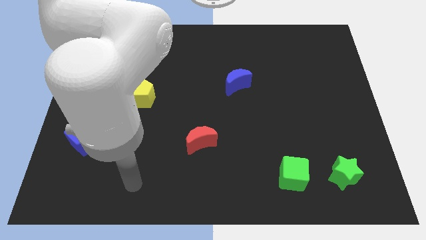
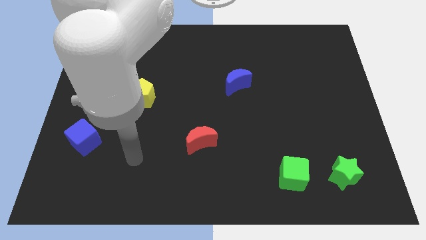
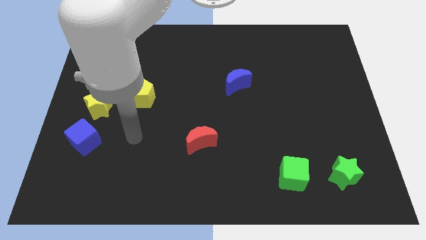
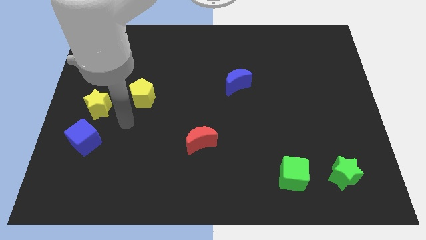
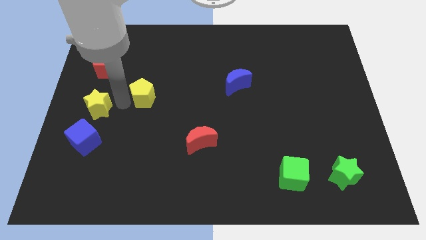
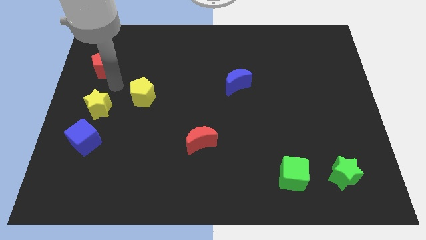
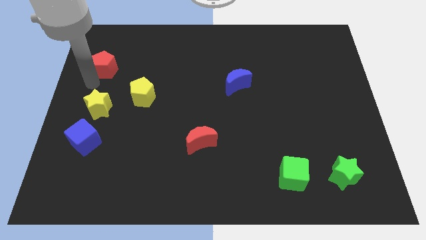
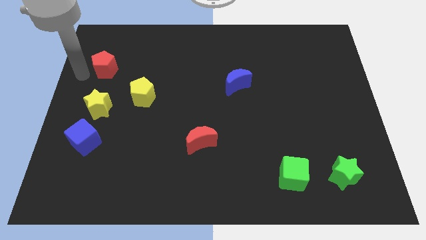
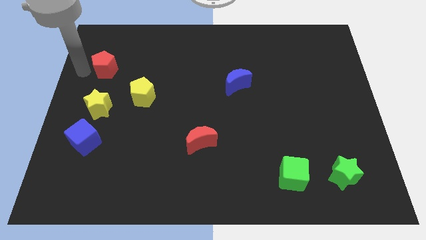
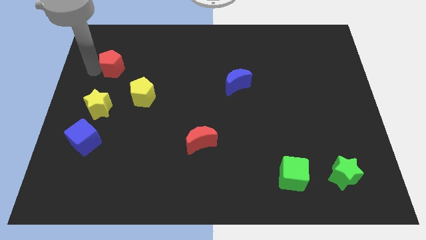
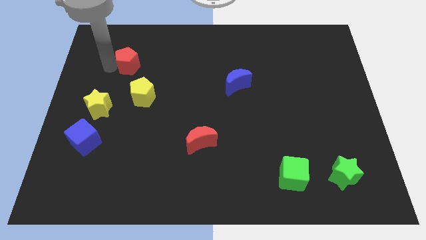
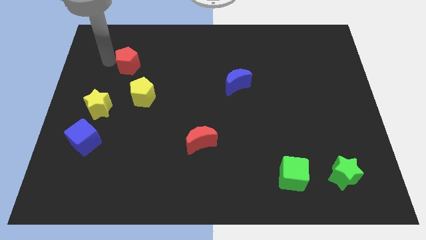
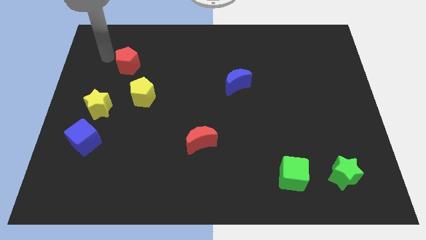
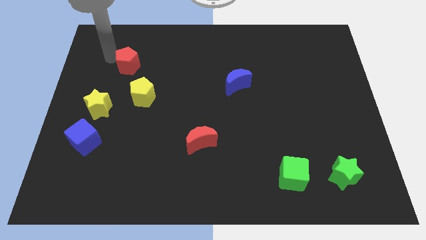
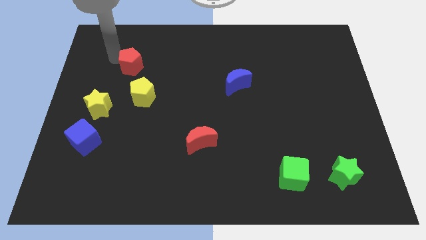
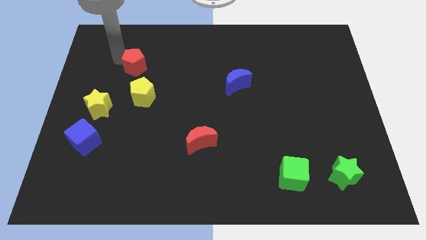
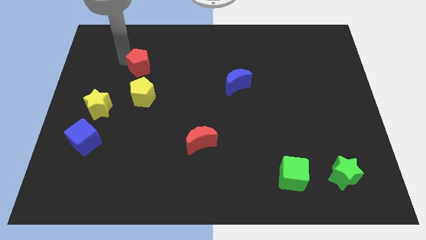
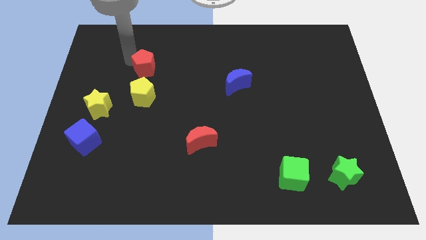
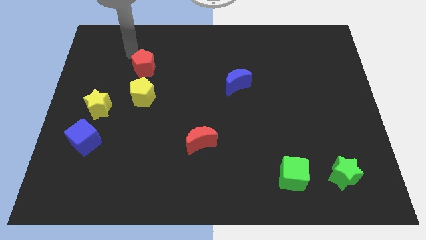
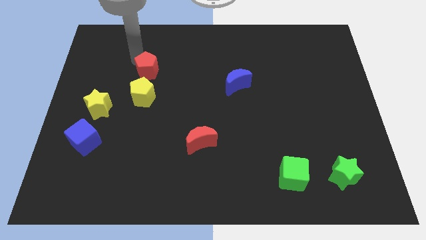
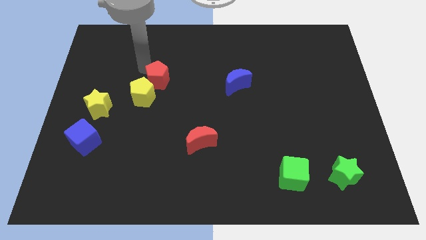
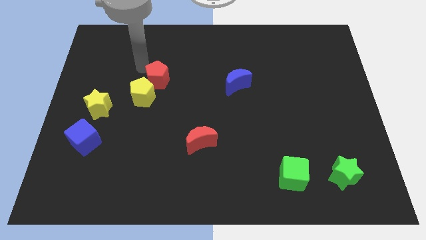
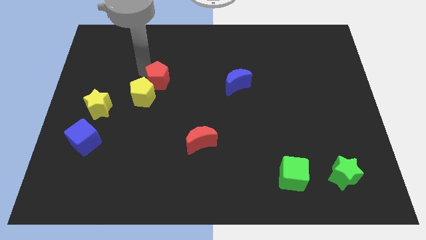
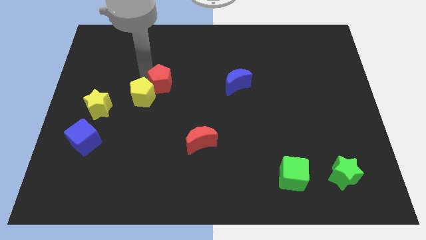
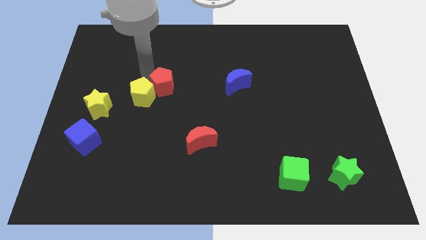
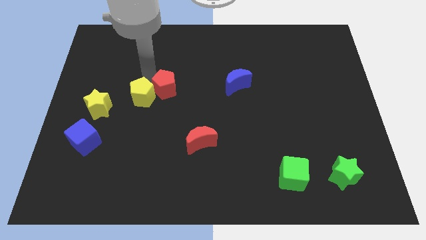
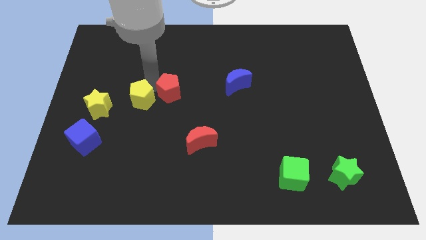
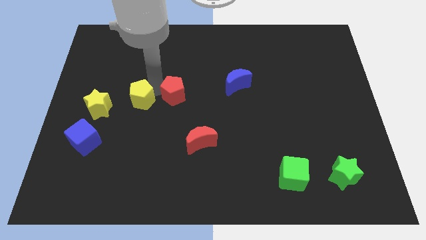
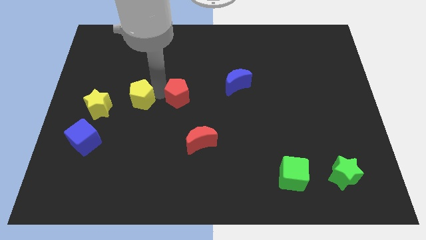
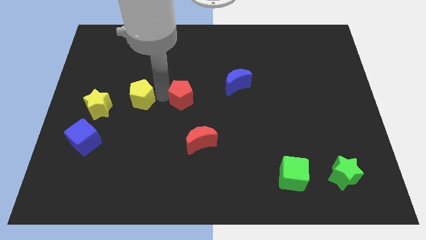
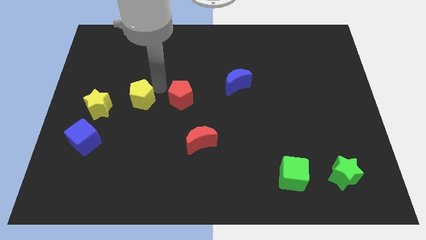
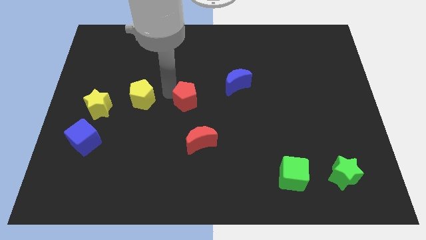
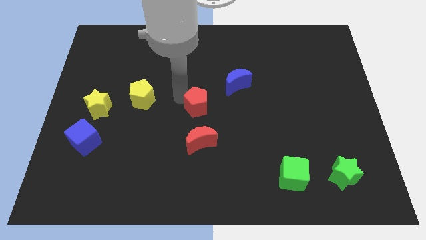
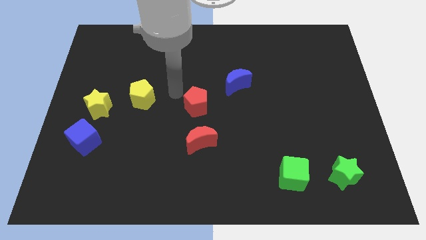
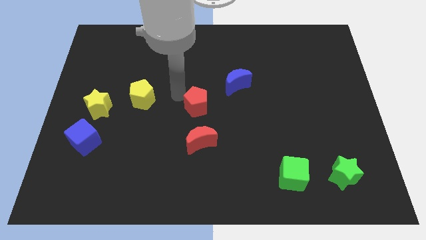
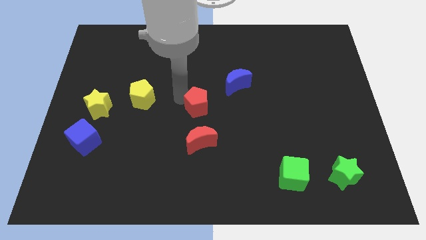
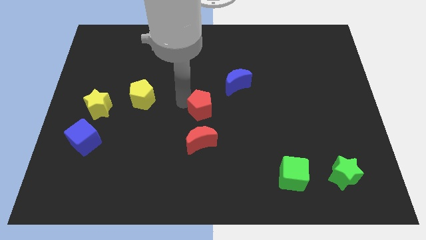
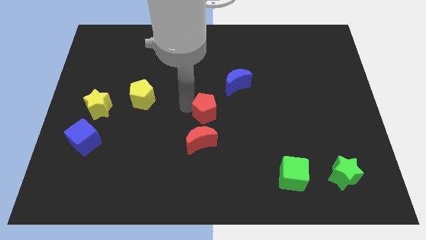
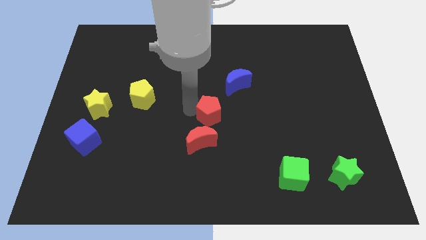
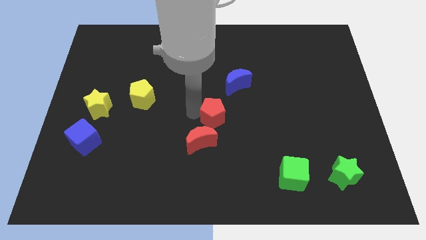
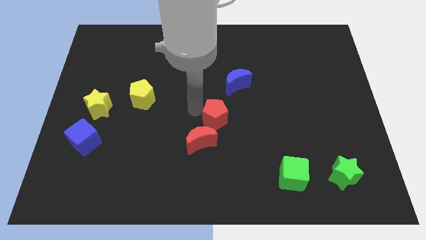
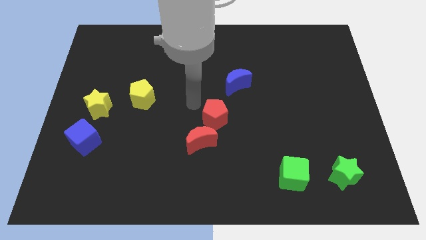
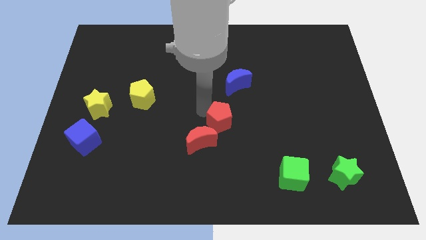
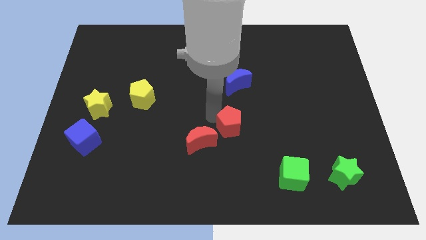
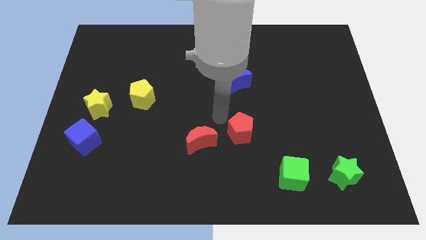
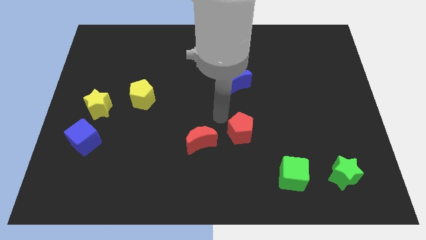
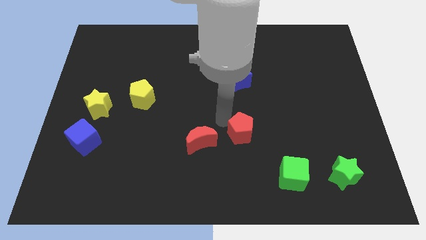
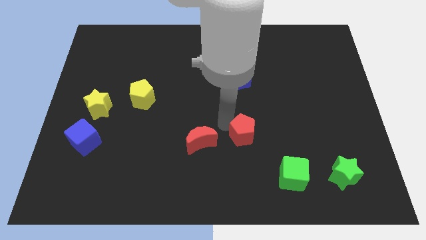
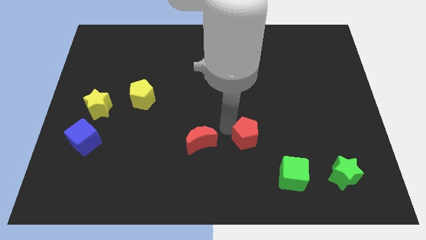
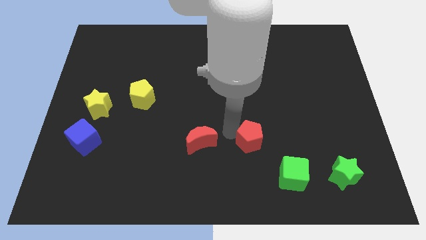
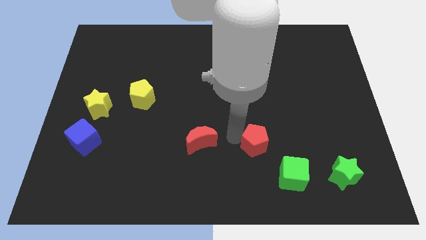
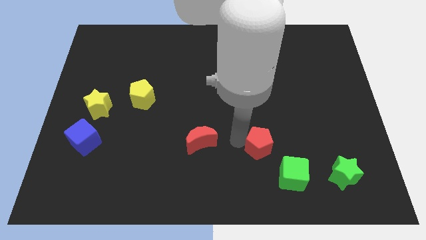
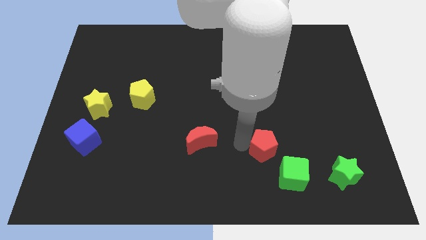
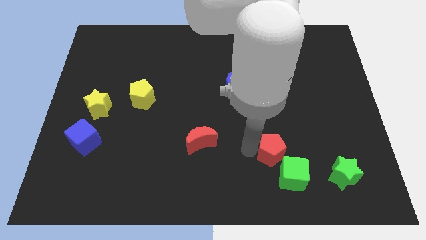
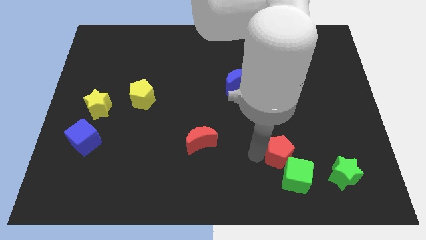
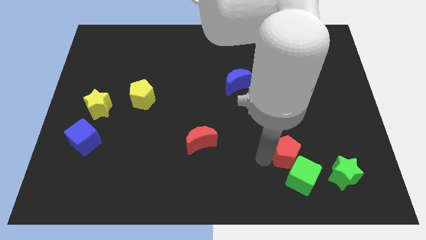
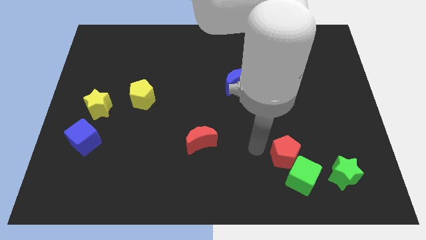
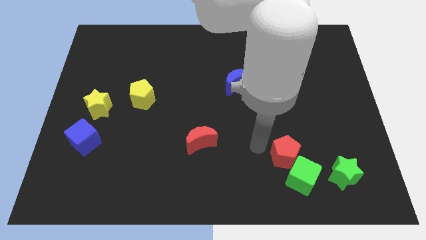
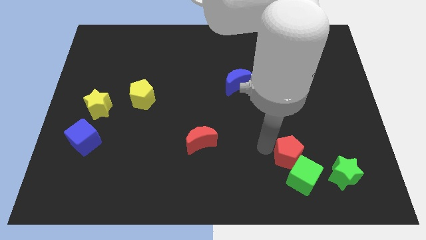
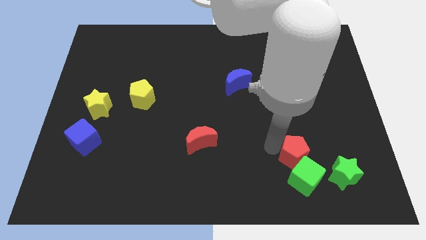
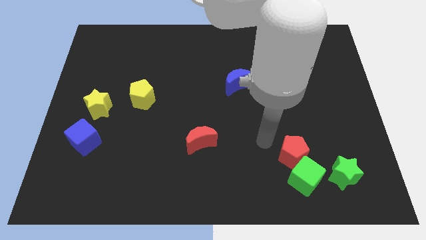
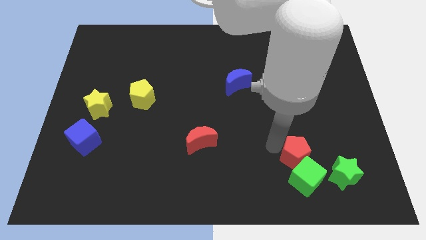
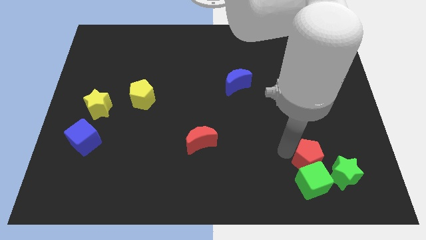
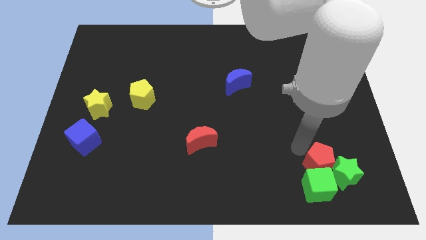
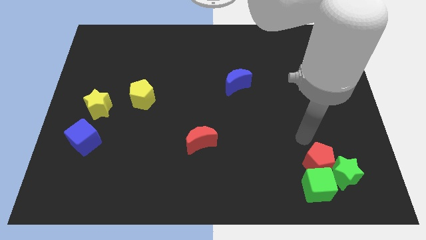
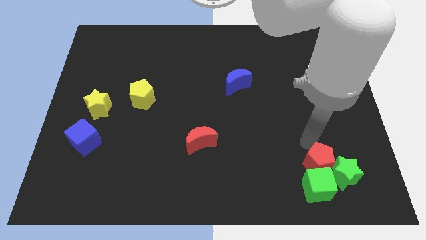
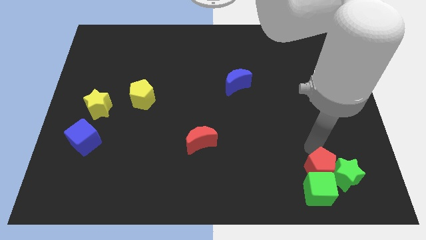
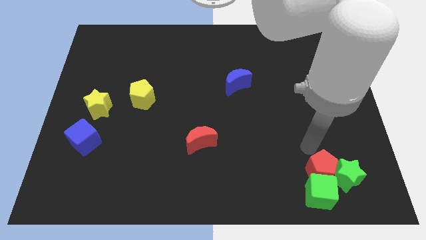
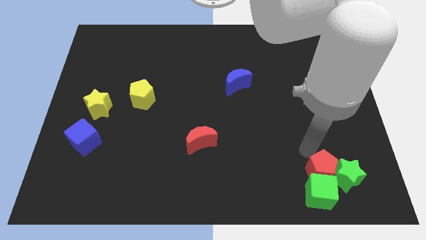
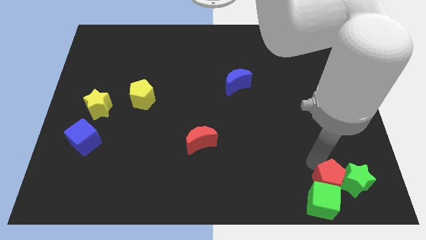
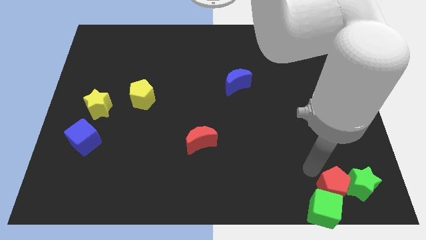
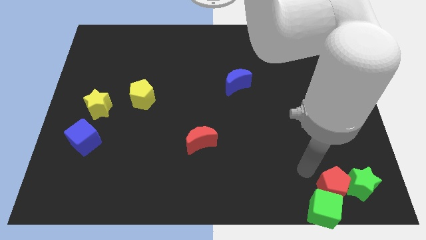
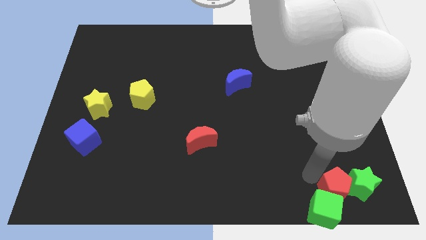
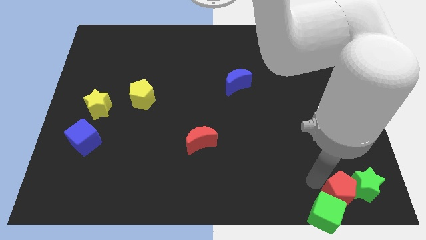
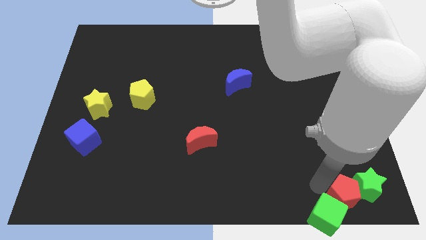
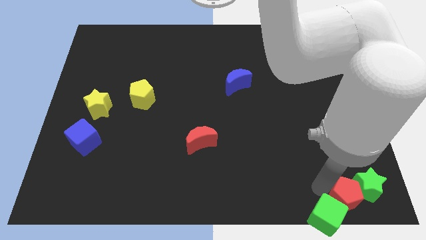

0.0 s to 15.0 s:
push the red pentagon to the bottom right
